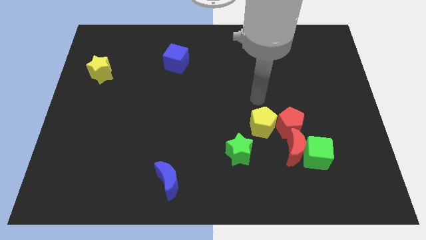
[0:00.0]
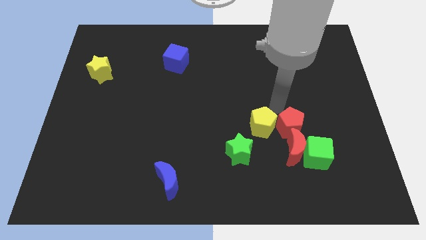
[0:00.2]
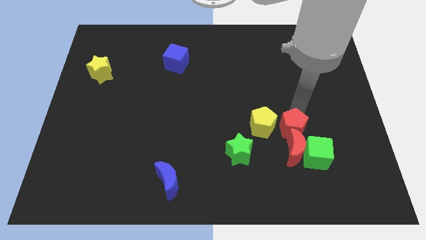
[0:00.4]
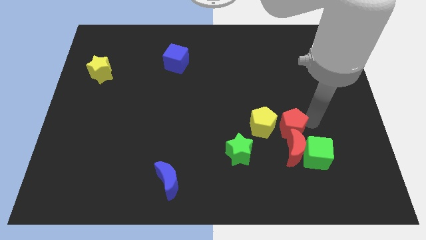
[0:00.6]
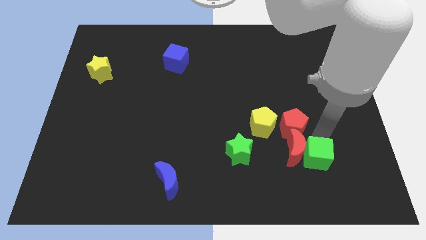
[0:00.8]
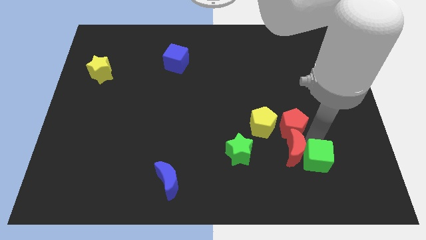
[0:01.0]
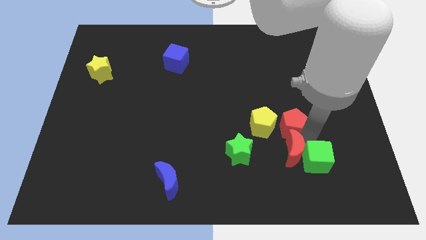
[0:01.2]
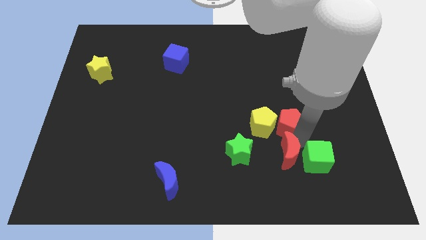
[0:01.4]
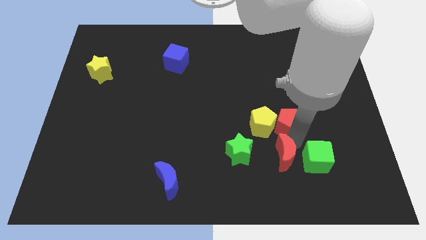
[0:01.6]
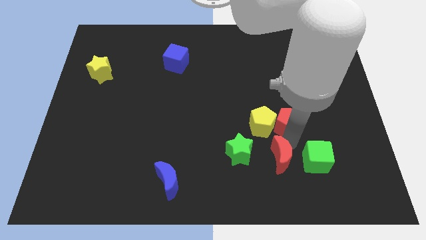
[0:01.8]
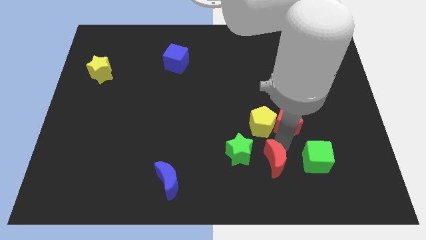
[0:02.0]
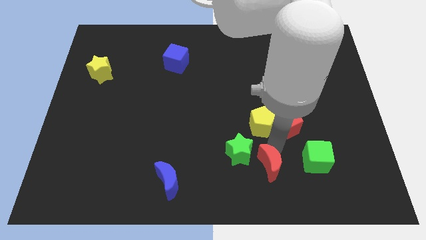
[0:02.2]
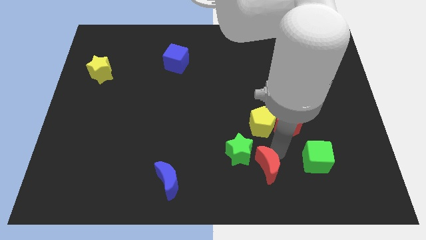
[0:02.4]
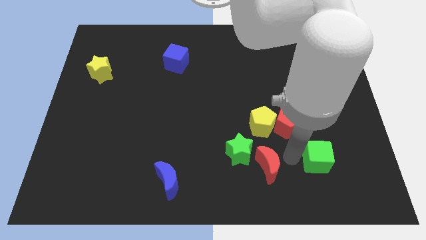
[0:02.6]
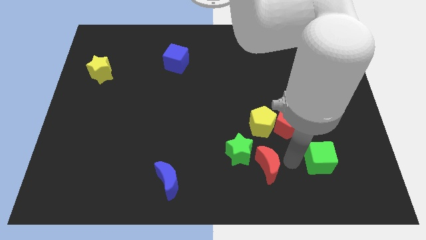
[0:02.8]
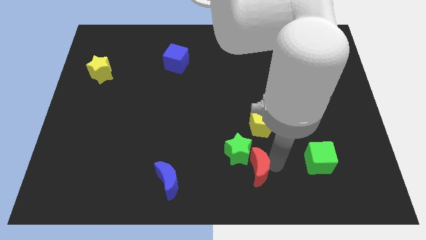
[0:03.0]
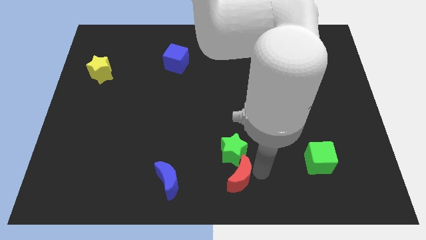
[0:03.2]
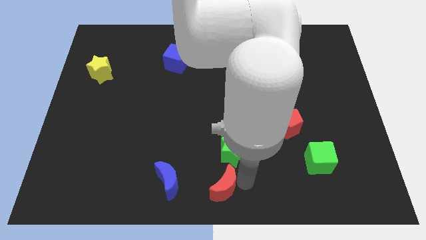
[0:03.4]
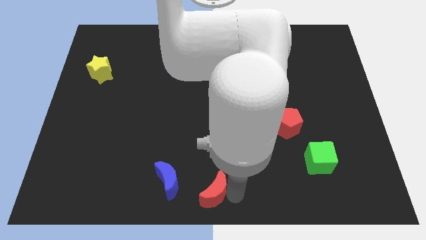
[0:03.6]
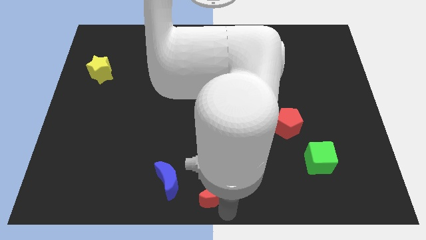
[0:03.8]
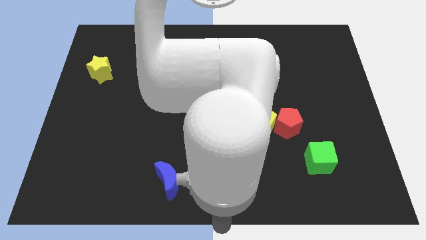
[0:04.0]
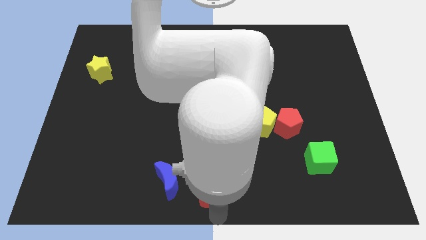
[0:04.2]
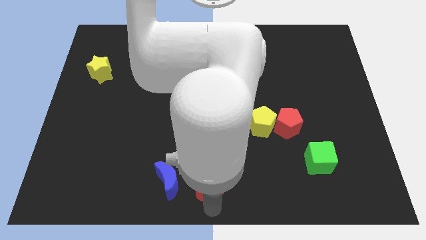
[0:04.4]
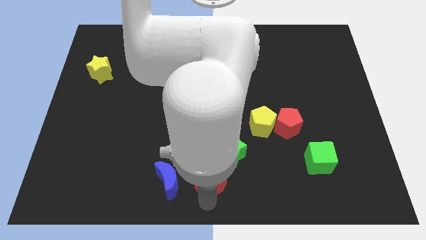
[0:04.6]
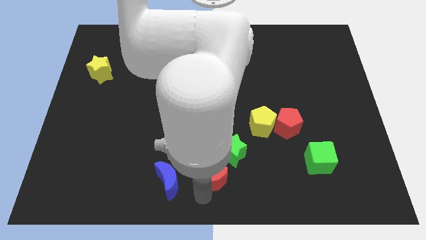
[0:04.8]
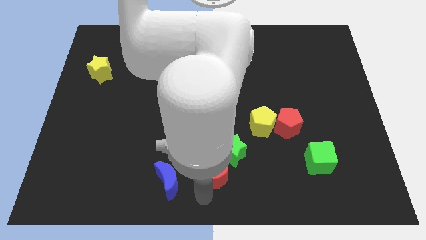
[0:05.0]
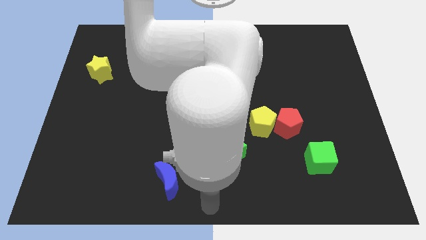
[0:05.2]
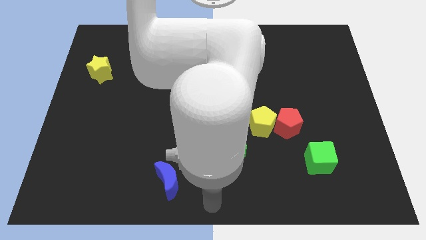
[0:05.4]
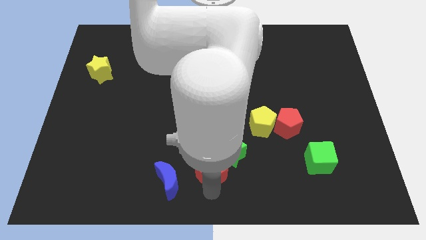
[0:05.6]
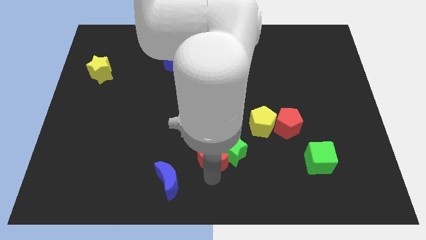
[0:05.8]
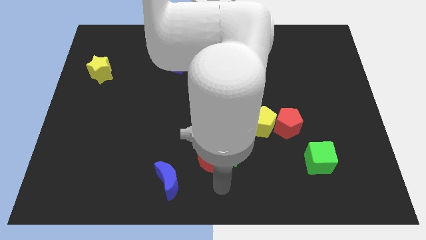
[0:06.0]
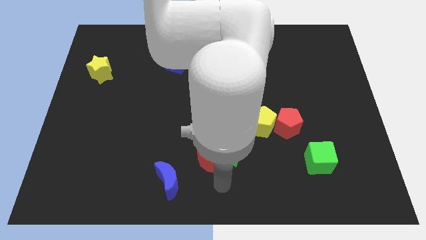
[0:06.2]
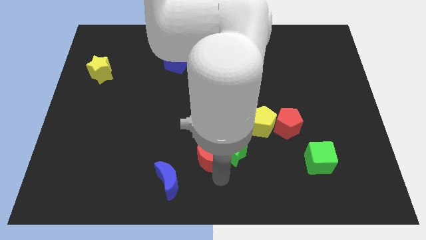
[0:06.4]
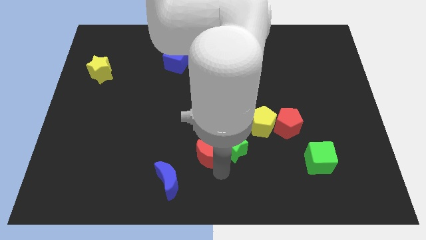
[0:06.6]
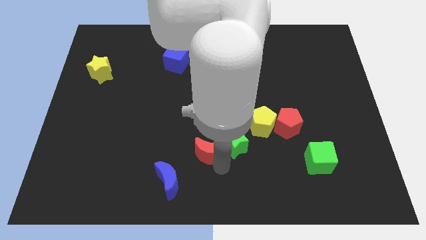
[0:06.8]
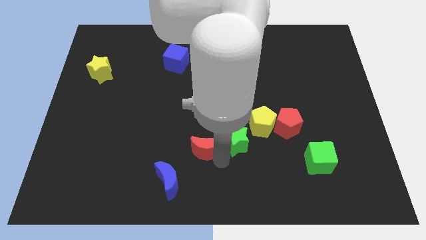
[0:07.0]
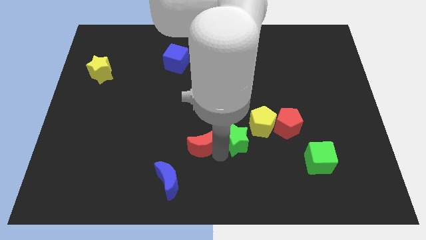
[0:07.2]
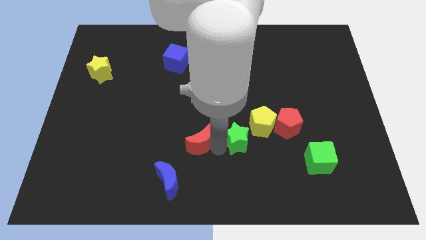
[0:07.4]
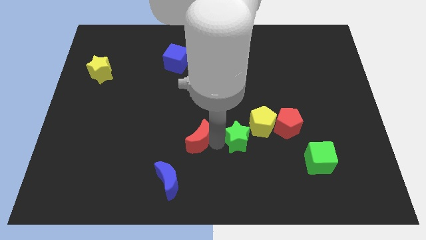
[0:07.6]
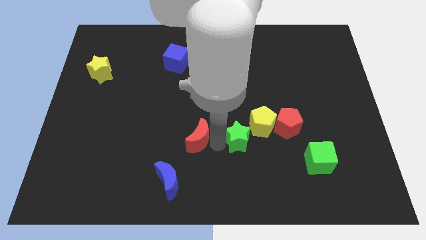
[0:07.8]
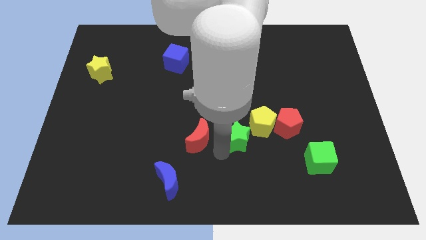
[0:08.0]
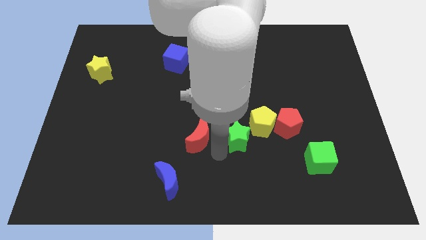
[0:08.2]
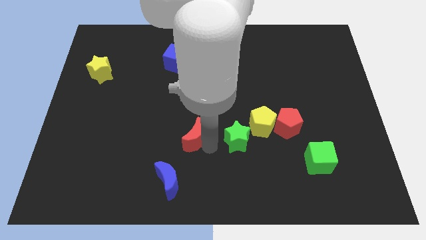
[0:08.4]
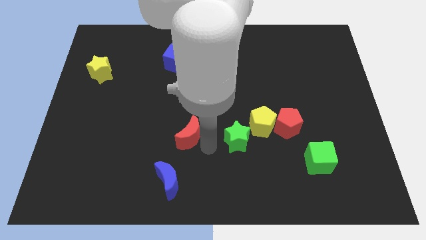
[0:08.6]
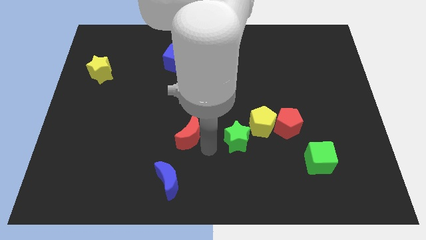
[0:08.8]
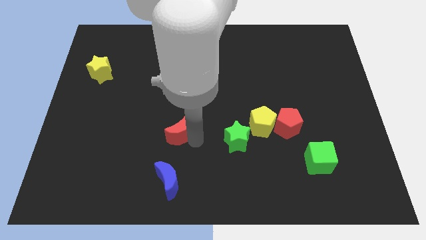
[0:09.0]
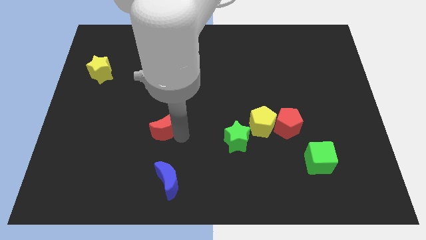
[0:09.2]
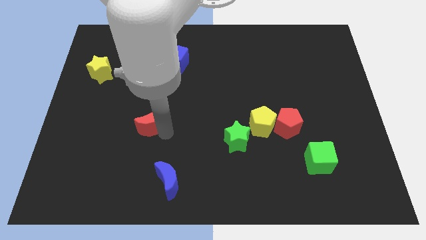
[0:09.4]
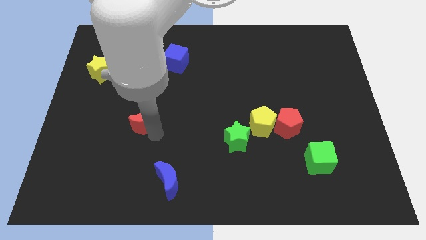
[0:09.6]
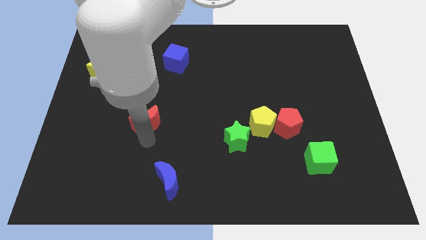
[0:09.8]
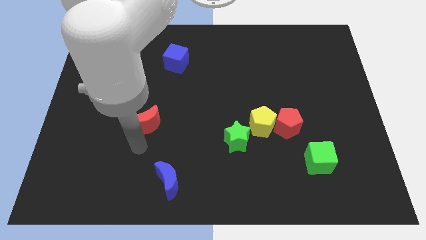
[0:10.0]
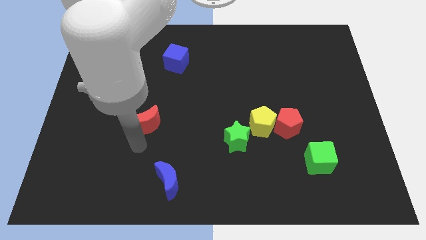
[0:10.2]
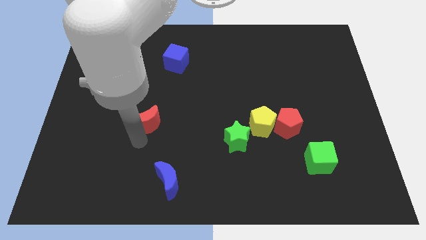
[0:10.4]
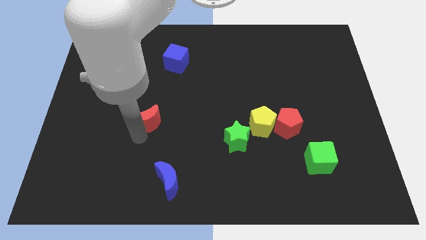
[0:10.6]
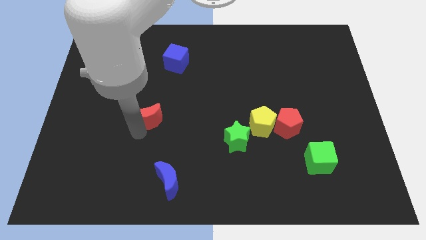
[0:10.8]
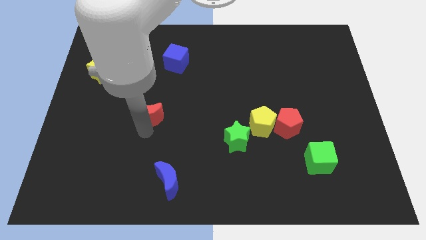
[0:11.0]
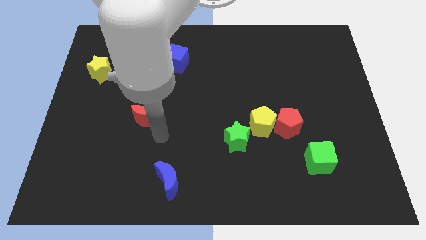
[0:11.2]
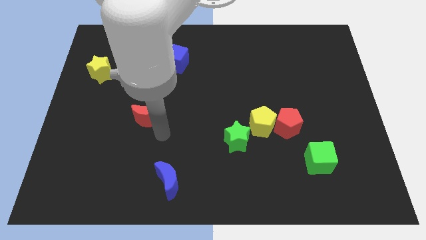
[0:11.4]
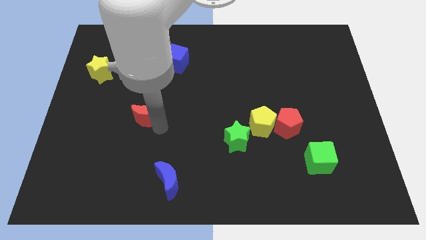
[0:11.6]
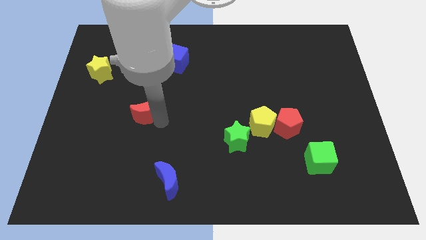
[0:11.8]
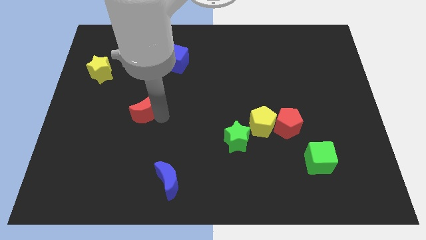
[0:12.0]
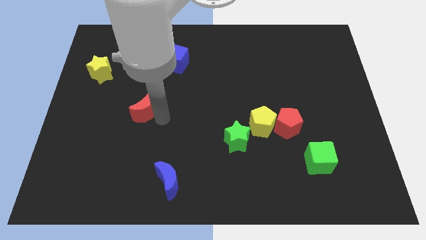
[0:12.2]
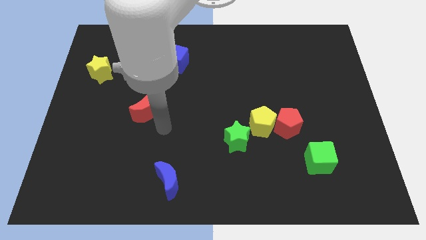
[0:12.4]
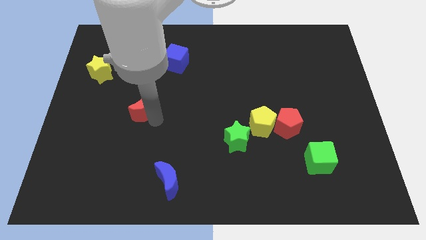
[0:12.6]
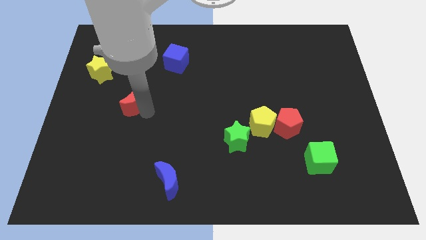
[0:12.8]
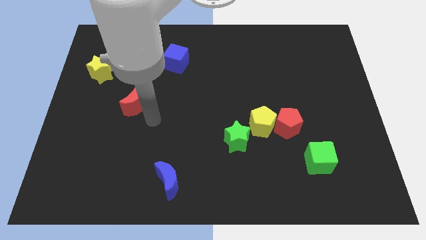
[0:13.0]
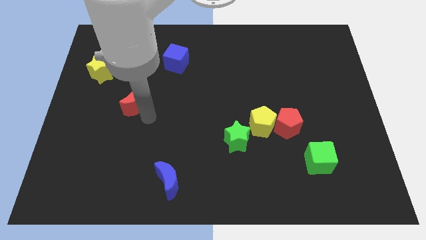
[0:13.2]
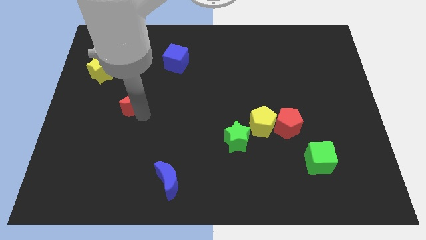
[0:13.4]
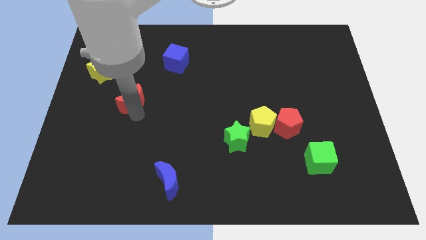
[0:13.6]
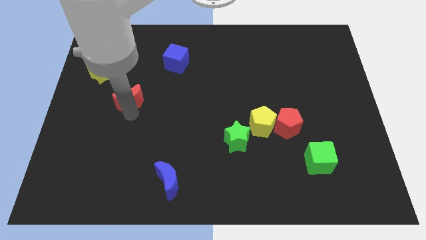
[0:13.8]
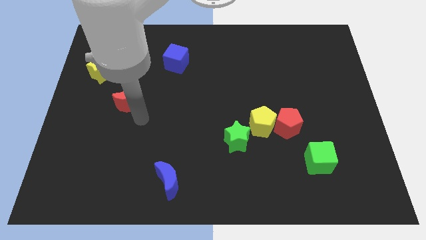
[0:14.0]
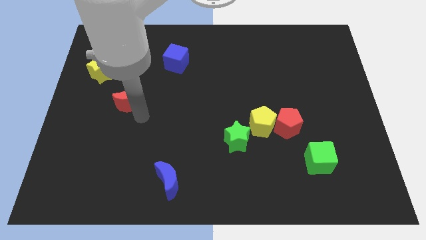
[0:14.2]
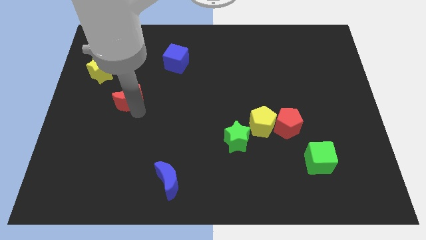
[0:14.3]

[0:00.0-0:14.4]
move the red moon to the bottom right of the yellow star
